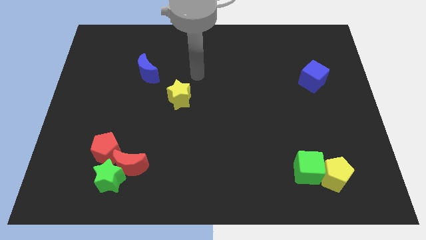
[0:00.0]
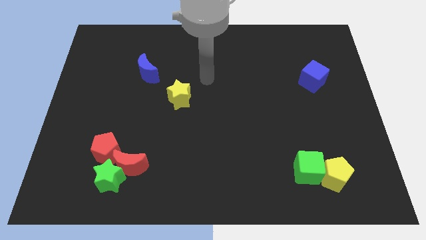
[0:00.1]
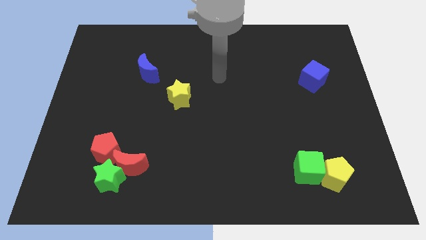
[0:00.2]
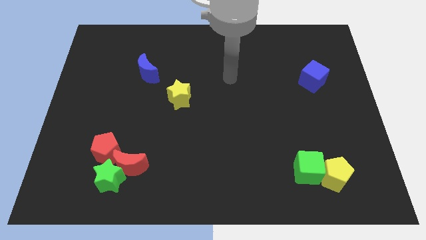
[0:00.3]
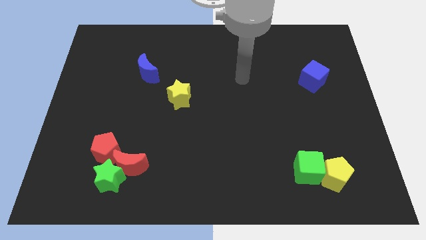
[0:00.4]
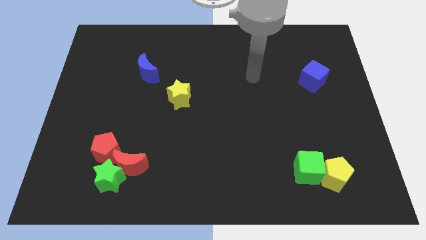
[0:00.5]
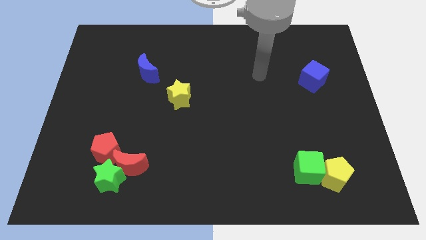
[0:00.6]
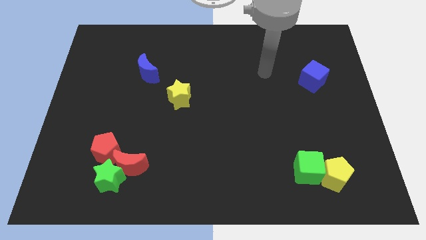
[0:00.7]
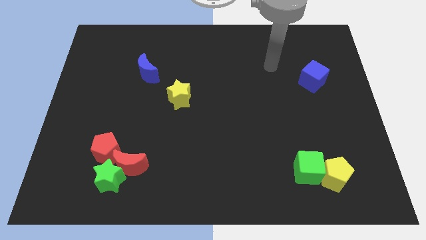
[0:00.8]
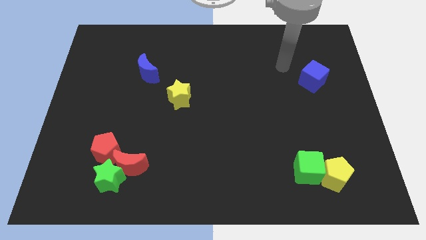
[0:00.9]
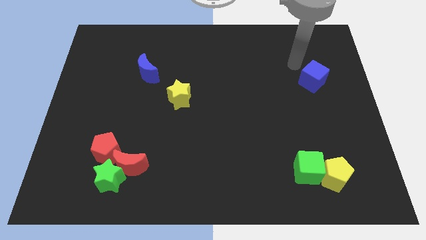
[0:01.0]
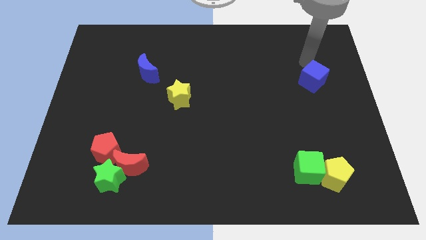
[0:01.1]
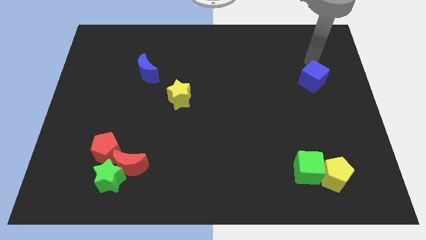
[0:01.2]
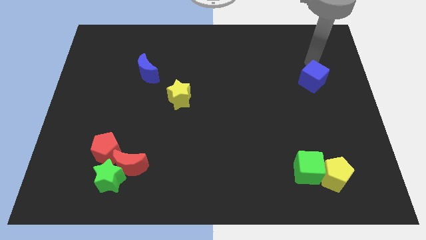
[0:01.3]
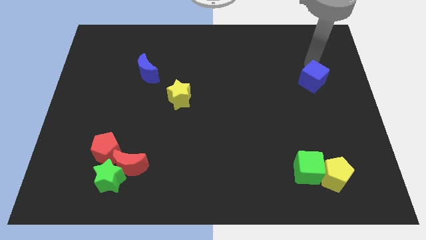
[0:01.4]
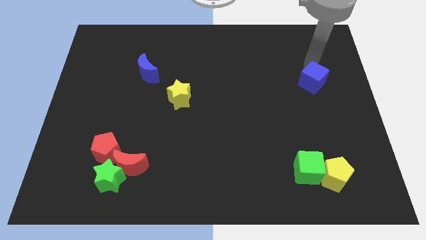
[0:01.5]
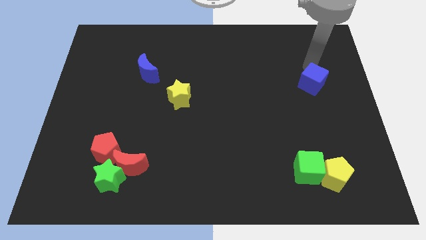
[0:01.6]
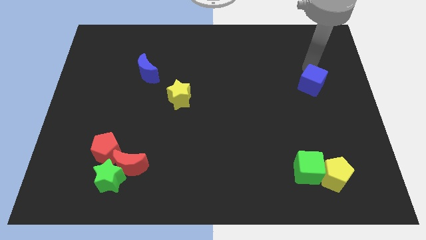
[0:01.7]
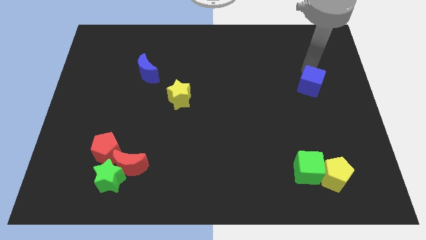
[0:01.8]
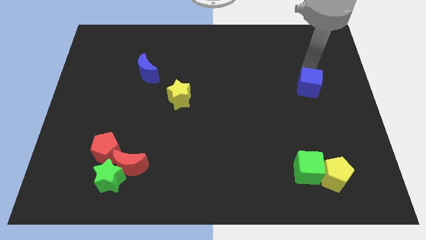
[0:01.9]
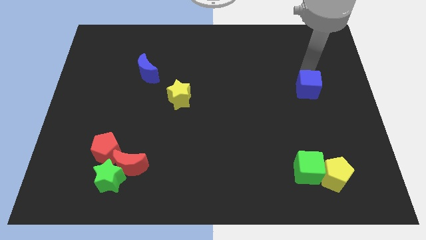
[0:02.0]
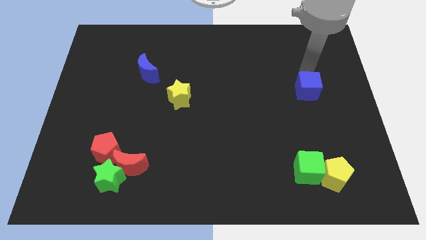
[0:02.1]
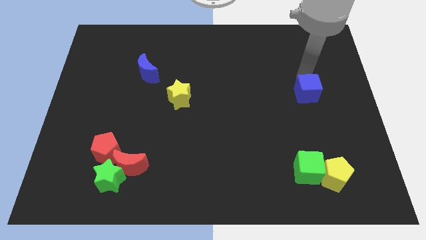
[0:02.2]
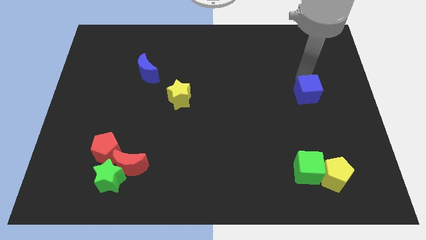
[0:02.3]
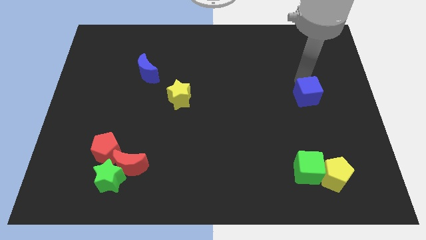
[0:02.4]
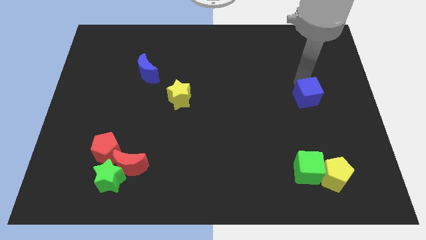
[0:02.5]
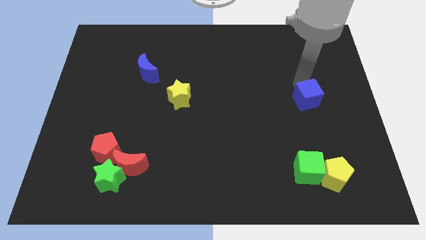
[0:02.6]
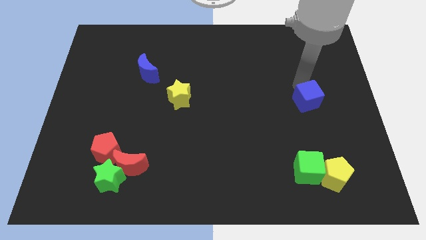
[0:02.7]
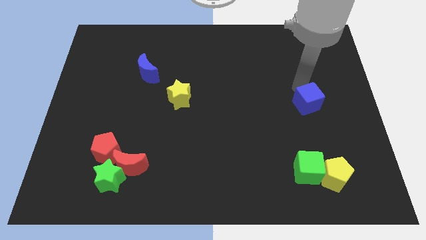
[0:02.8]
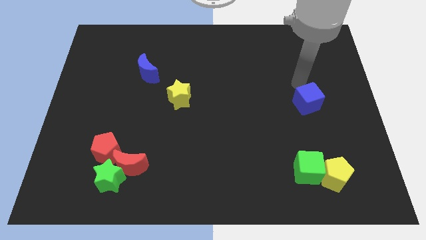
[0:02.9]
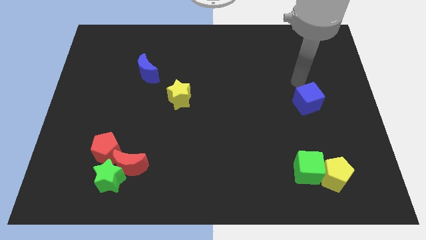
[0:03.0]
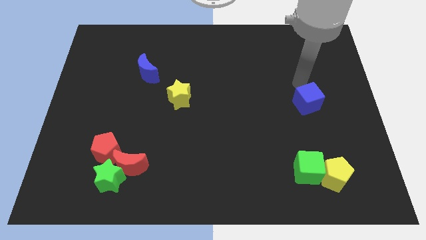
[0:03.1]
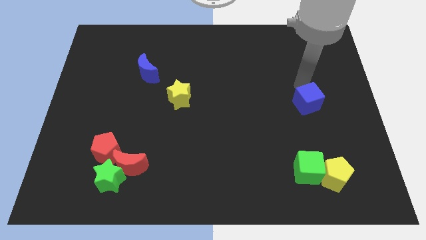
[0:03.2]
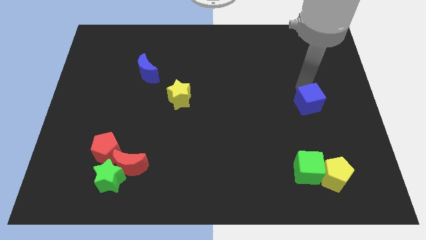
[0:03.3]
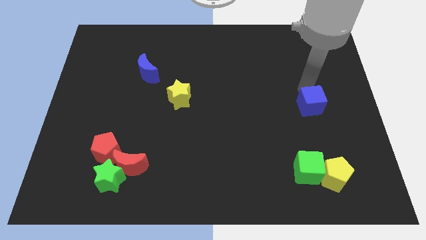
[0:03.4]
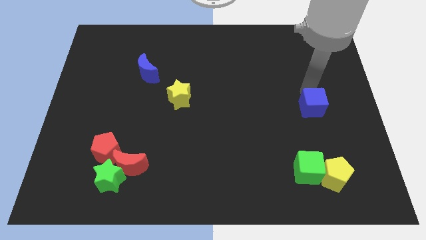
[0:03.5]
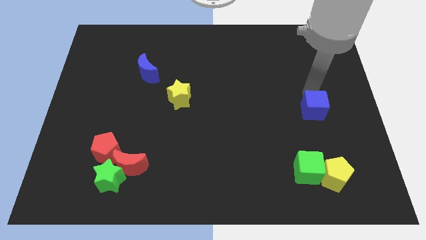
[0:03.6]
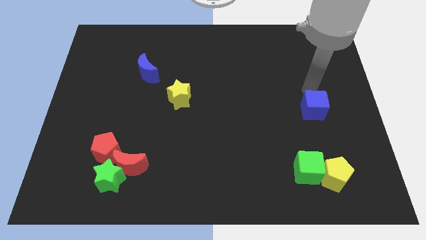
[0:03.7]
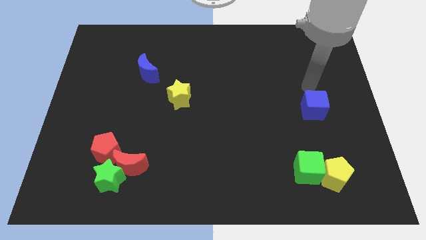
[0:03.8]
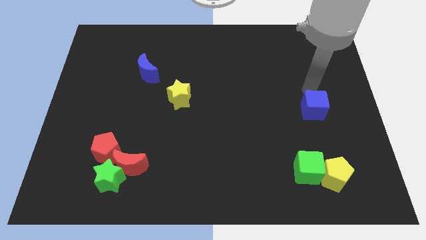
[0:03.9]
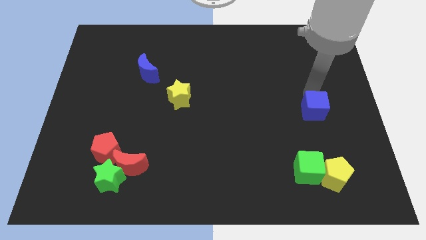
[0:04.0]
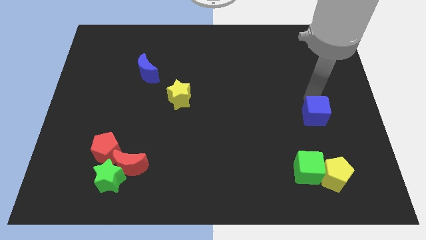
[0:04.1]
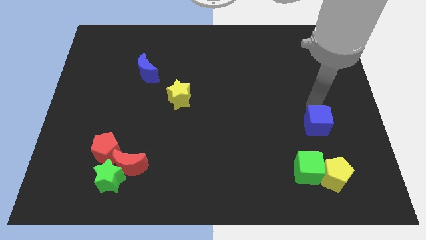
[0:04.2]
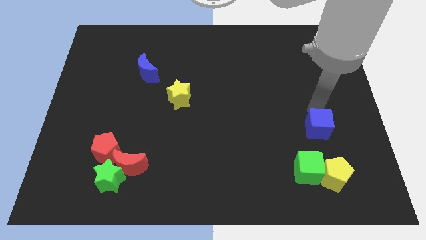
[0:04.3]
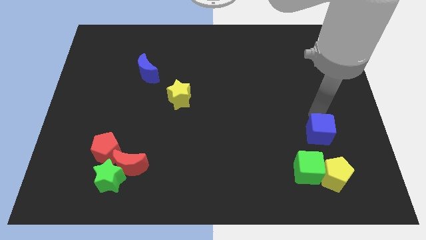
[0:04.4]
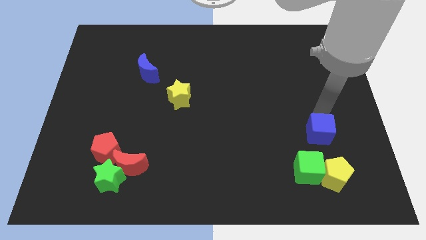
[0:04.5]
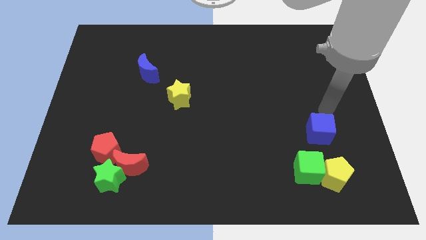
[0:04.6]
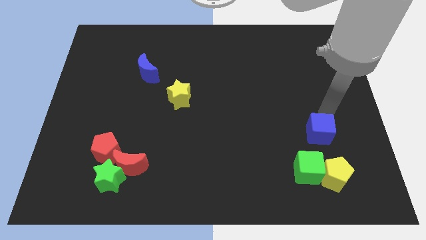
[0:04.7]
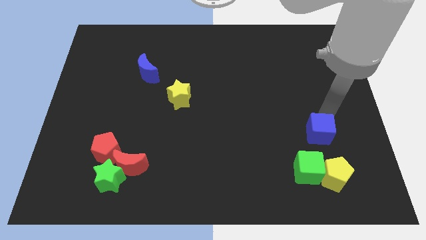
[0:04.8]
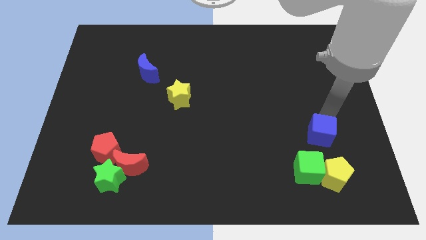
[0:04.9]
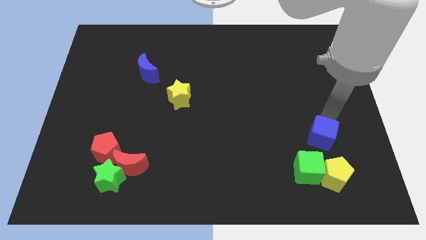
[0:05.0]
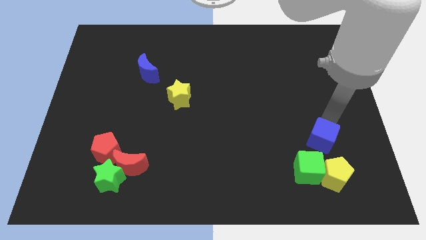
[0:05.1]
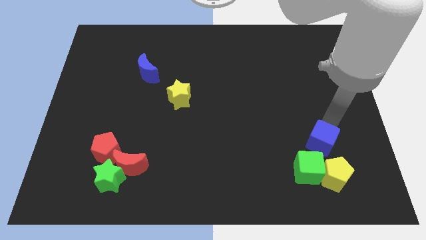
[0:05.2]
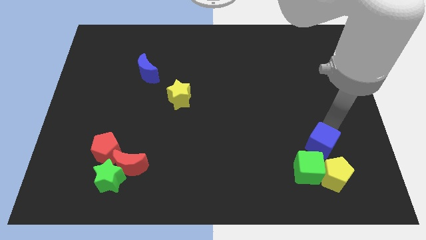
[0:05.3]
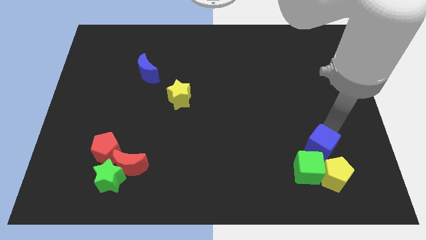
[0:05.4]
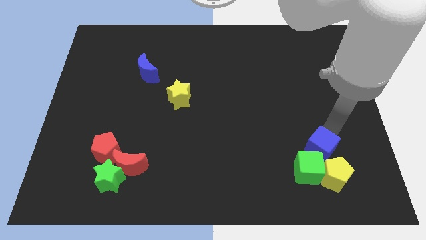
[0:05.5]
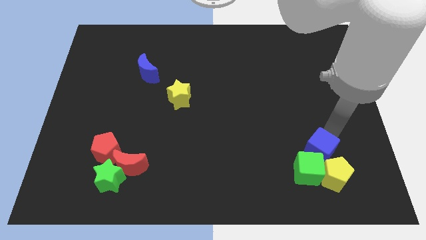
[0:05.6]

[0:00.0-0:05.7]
push the blue cube next to the green cube

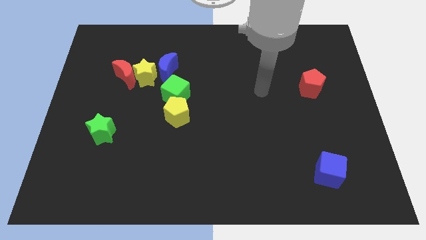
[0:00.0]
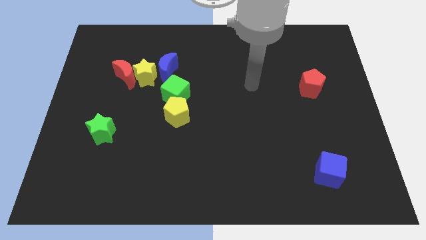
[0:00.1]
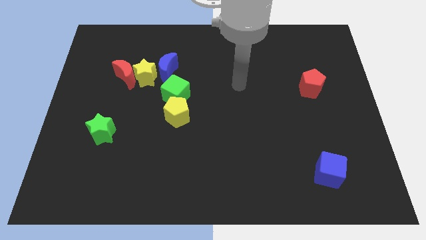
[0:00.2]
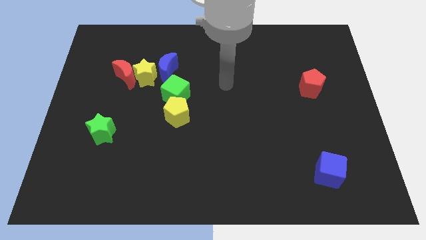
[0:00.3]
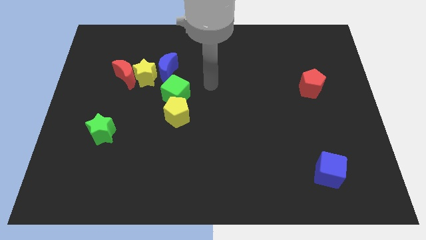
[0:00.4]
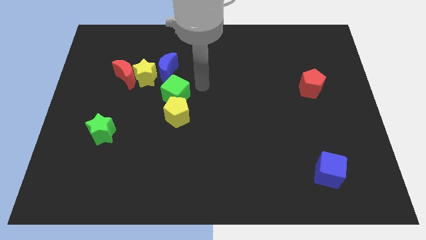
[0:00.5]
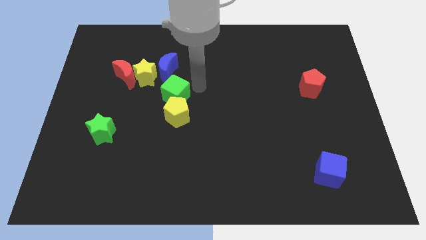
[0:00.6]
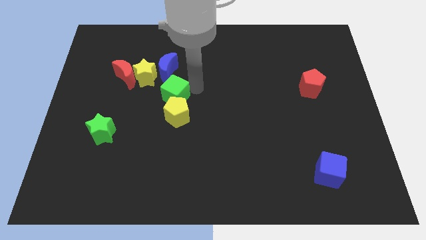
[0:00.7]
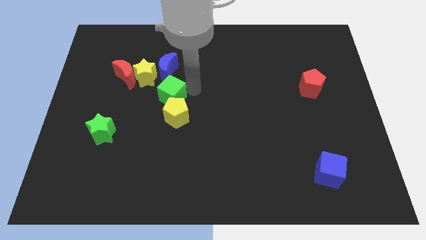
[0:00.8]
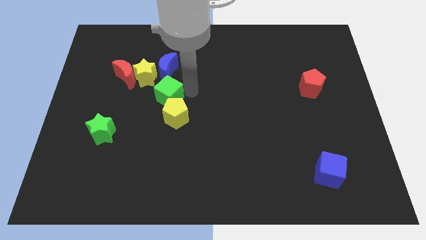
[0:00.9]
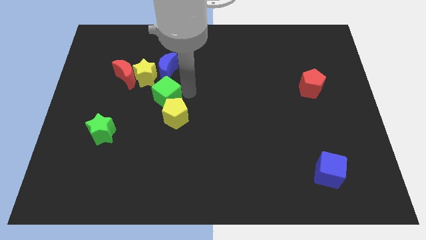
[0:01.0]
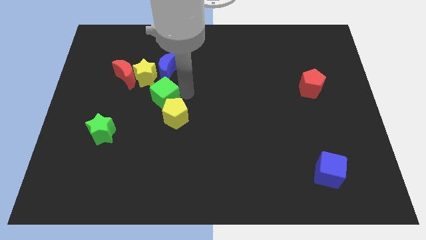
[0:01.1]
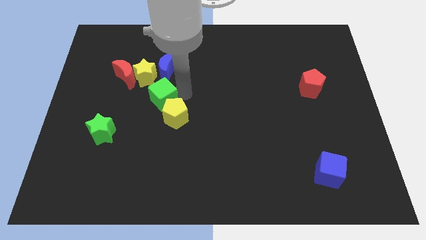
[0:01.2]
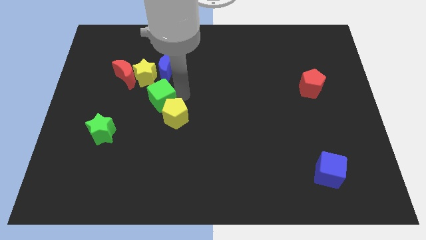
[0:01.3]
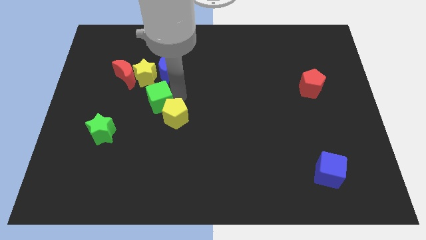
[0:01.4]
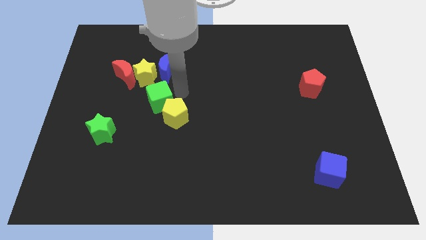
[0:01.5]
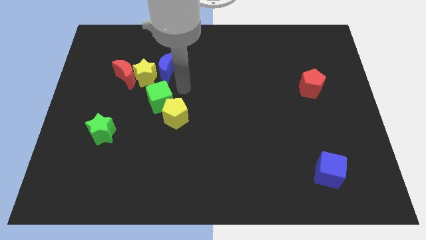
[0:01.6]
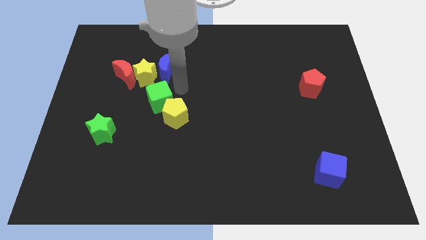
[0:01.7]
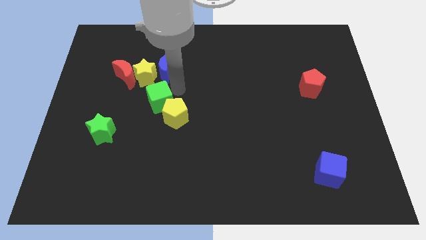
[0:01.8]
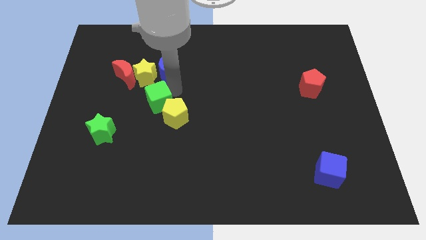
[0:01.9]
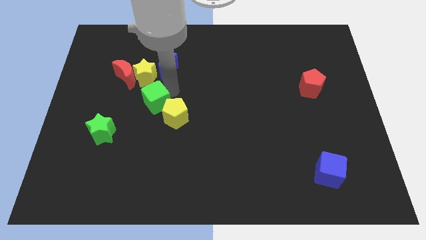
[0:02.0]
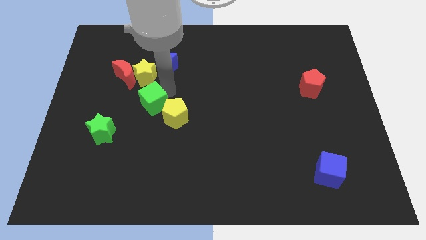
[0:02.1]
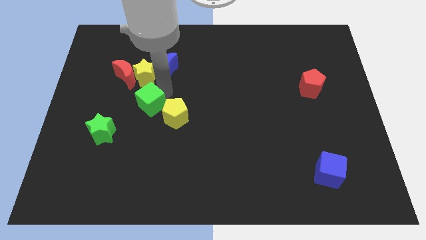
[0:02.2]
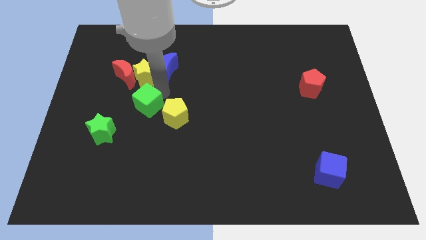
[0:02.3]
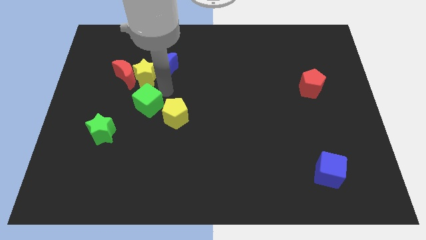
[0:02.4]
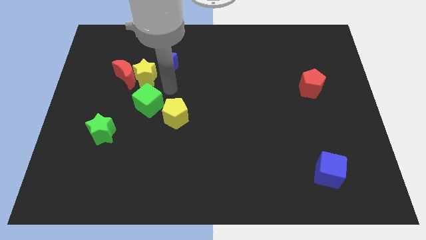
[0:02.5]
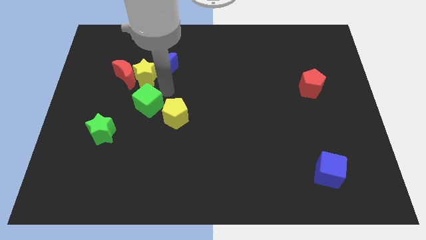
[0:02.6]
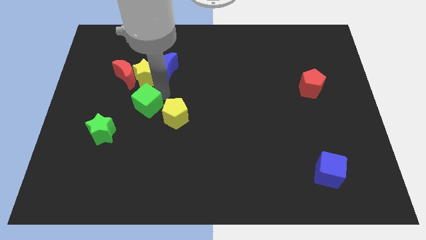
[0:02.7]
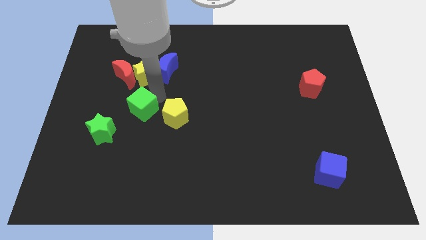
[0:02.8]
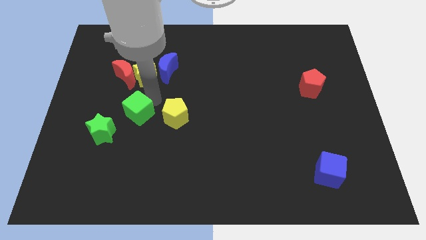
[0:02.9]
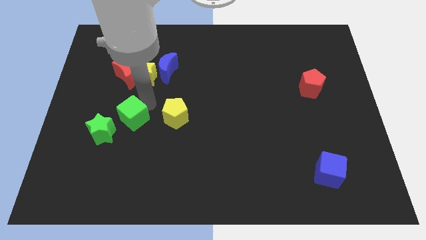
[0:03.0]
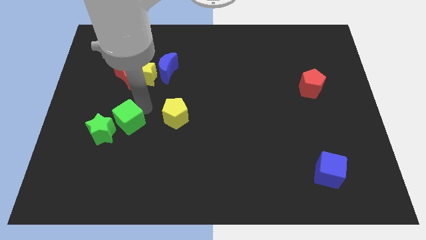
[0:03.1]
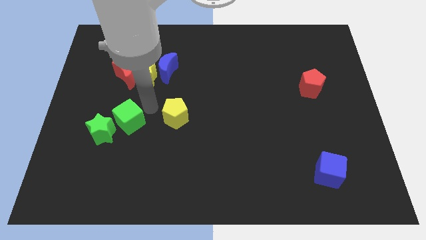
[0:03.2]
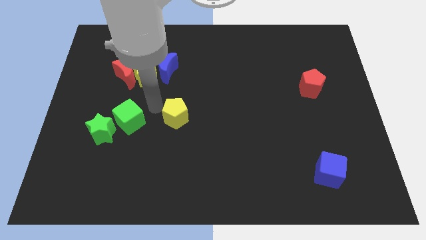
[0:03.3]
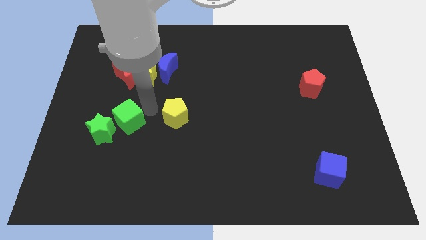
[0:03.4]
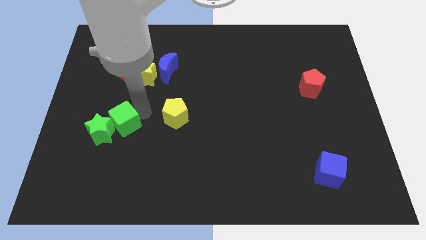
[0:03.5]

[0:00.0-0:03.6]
move the green cube towards the green star
